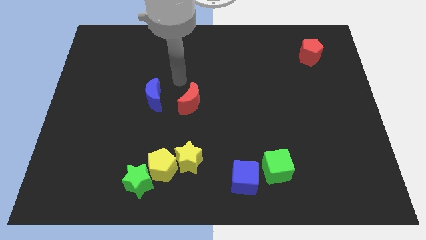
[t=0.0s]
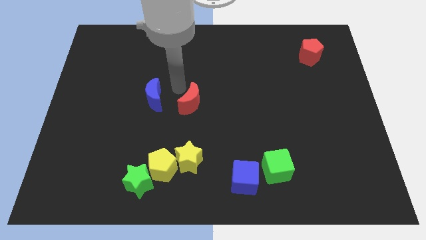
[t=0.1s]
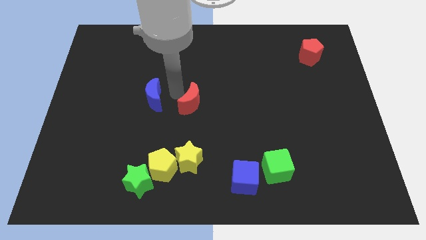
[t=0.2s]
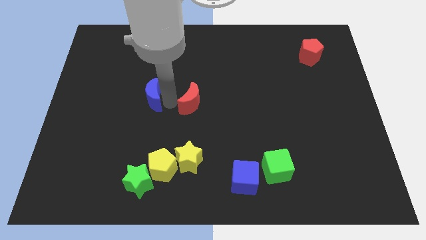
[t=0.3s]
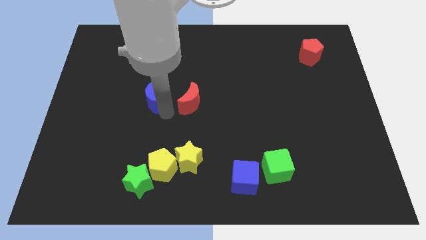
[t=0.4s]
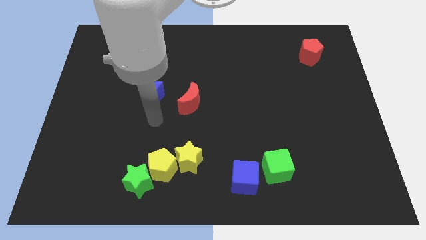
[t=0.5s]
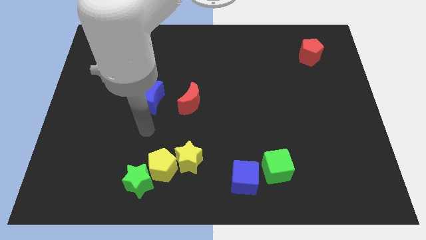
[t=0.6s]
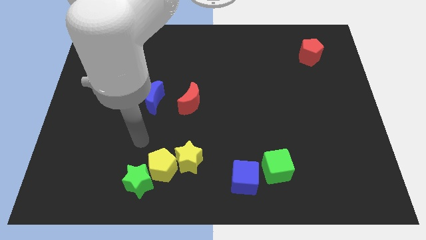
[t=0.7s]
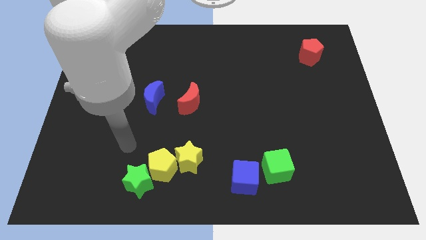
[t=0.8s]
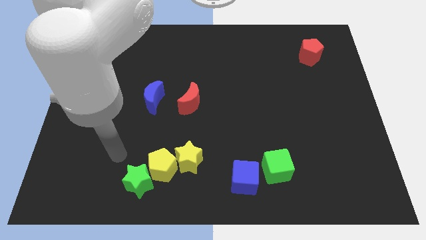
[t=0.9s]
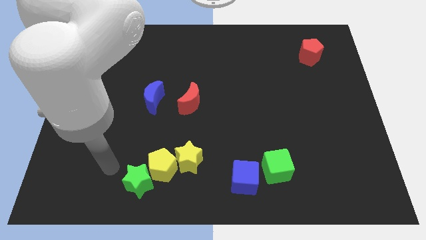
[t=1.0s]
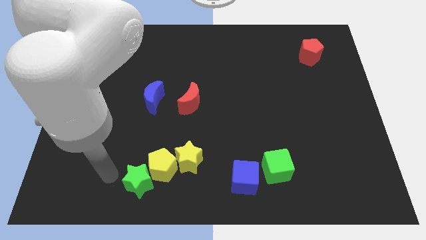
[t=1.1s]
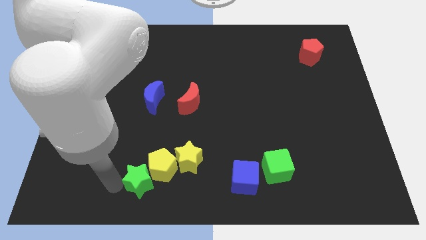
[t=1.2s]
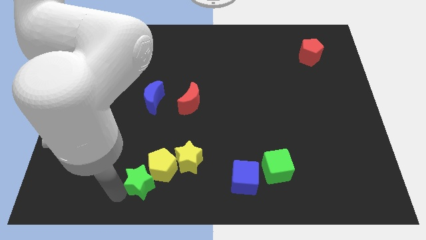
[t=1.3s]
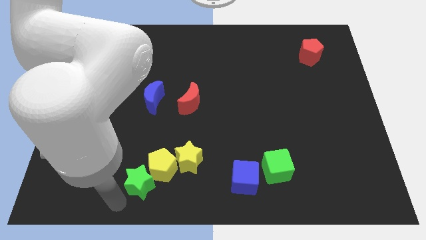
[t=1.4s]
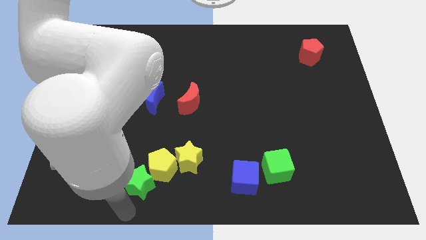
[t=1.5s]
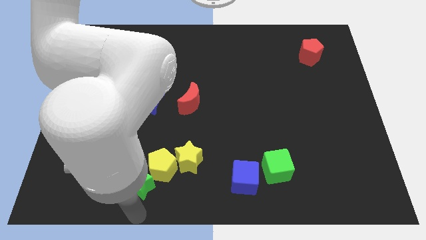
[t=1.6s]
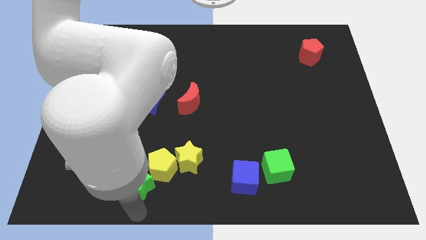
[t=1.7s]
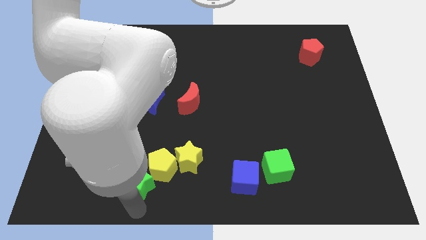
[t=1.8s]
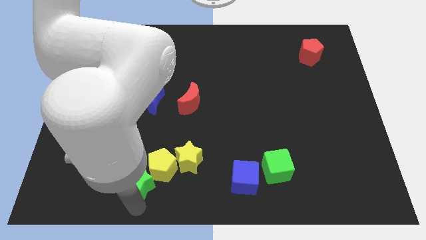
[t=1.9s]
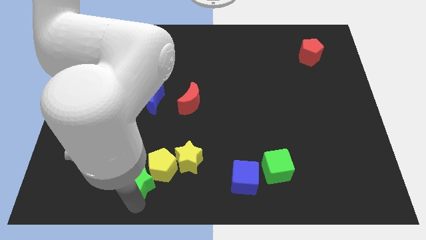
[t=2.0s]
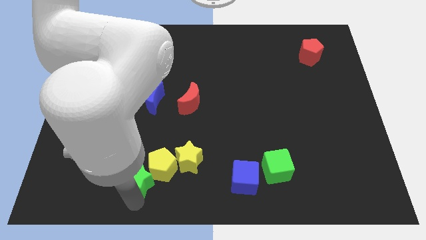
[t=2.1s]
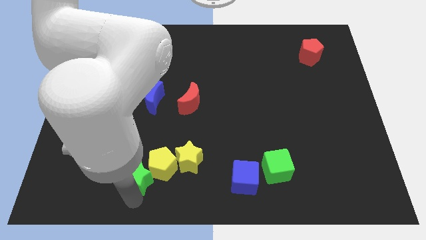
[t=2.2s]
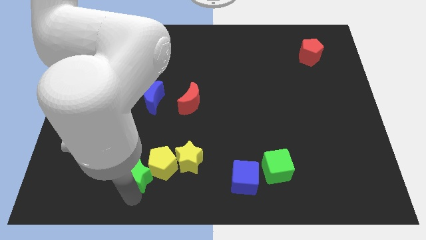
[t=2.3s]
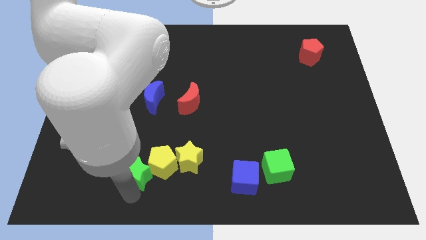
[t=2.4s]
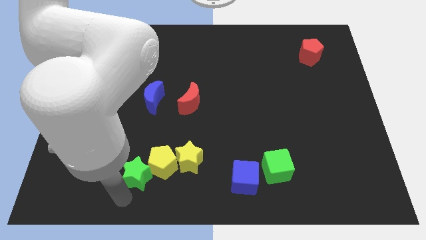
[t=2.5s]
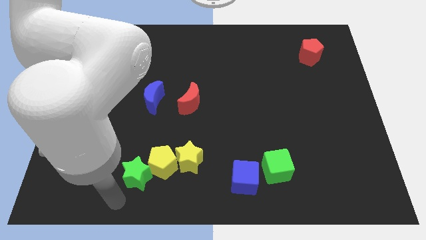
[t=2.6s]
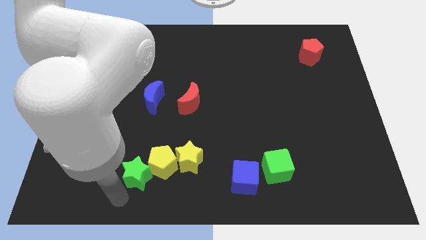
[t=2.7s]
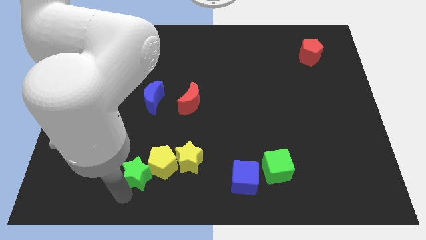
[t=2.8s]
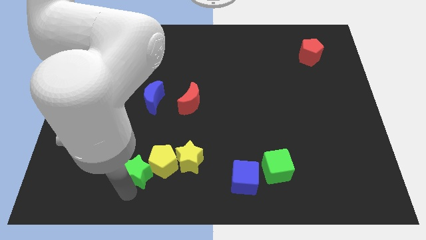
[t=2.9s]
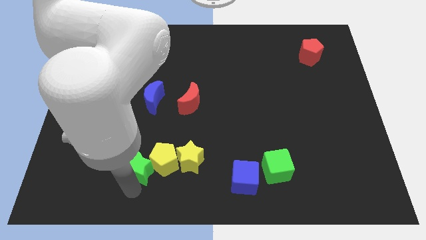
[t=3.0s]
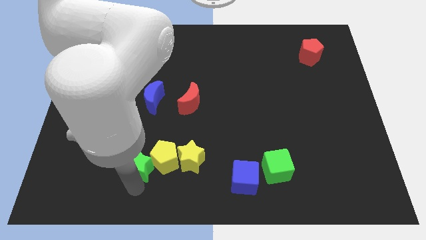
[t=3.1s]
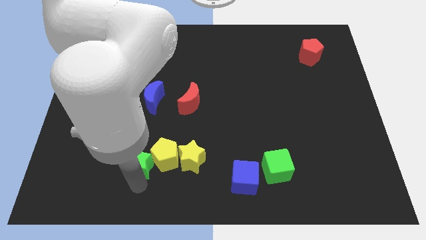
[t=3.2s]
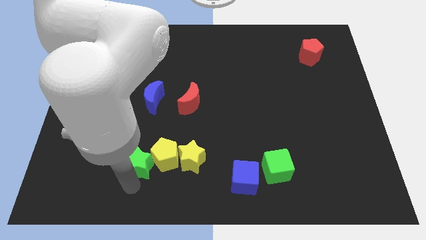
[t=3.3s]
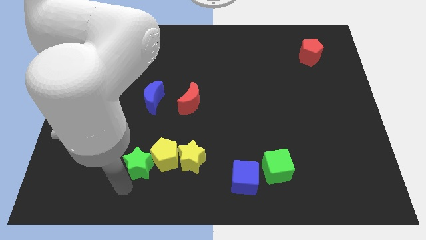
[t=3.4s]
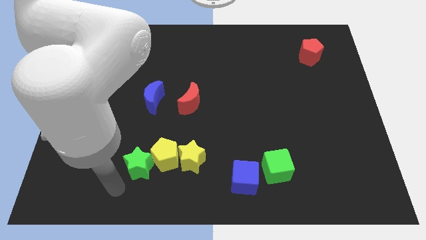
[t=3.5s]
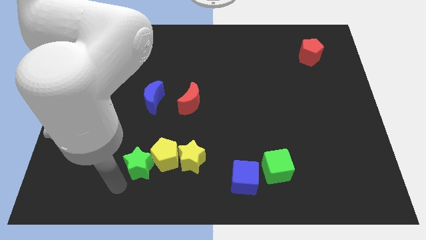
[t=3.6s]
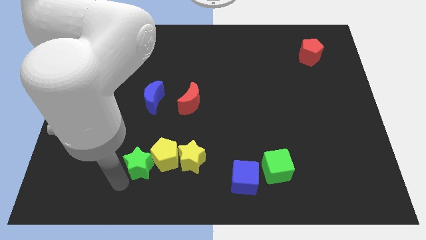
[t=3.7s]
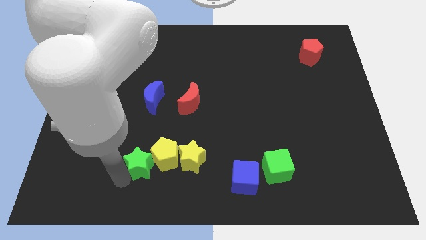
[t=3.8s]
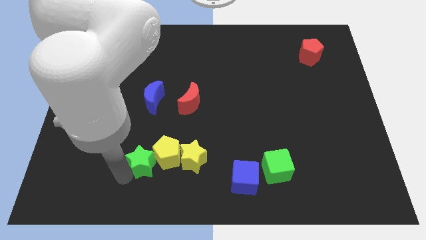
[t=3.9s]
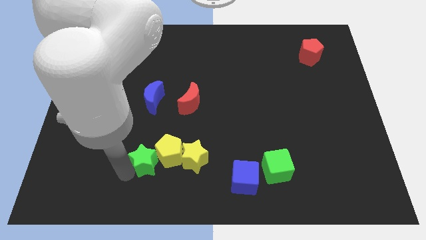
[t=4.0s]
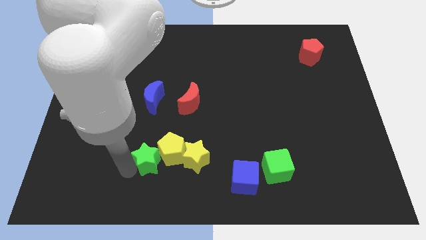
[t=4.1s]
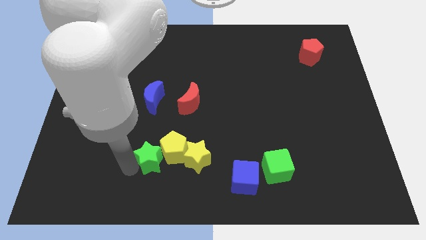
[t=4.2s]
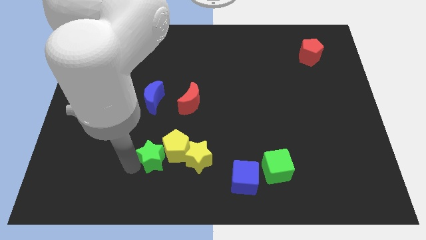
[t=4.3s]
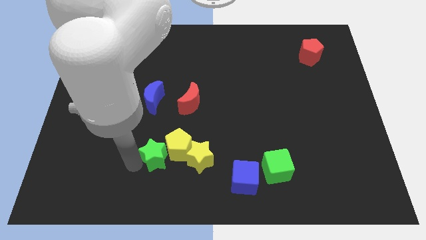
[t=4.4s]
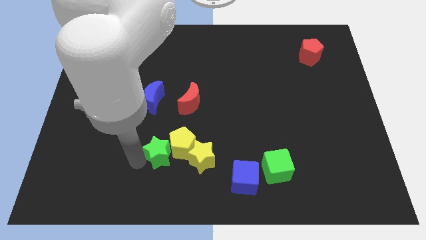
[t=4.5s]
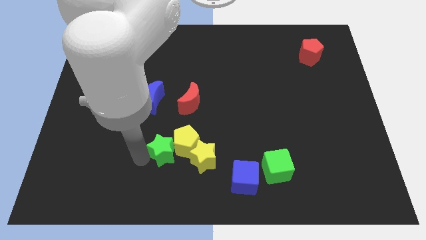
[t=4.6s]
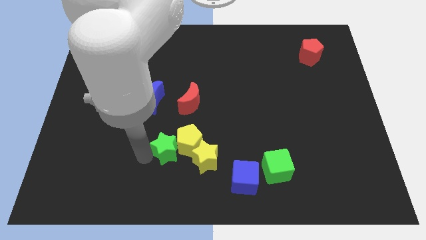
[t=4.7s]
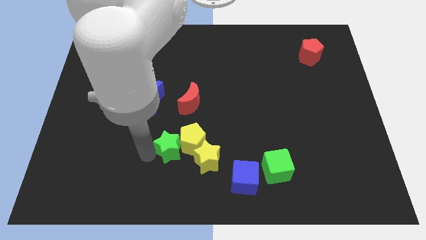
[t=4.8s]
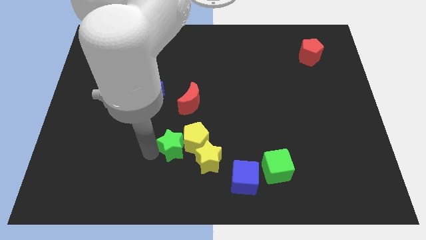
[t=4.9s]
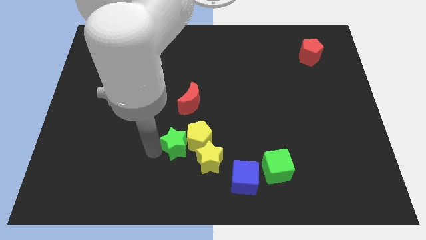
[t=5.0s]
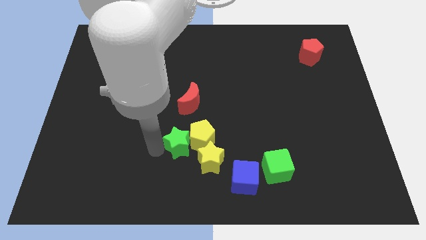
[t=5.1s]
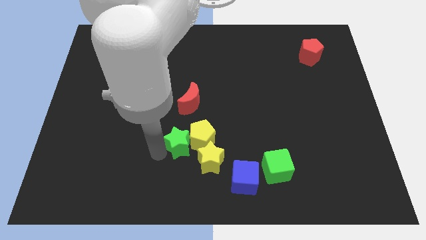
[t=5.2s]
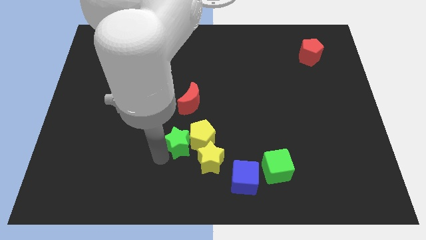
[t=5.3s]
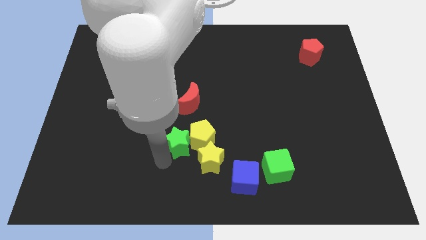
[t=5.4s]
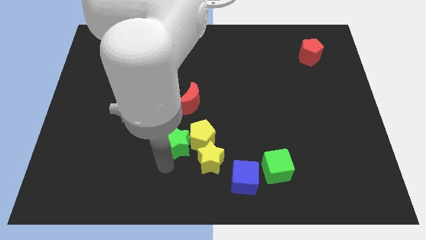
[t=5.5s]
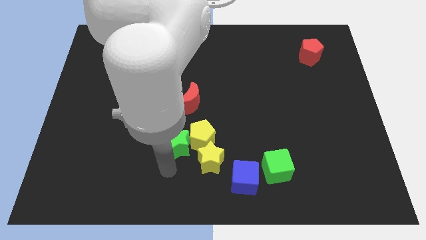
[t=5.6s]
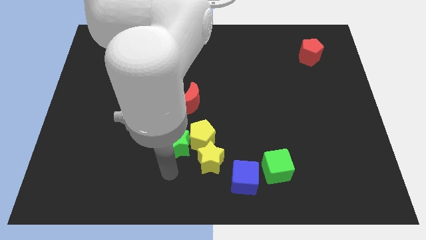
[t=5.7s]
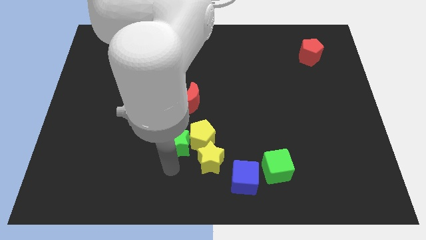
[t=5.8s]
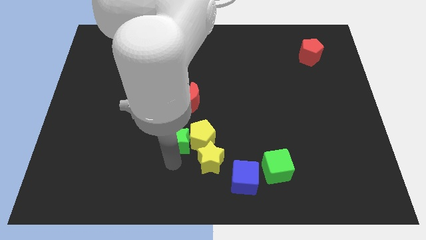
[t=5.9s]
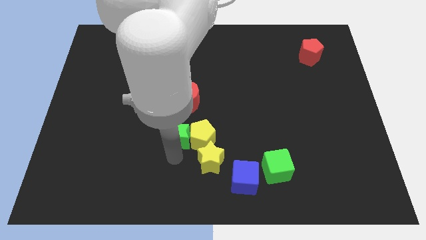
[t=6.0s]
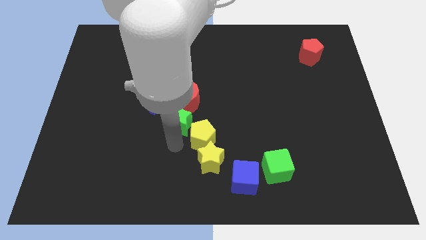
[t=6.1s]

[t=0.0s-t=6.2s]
push the green star to the middle of the board
